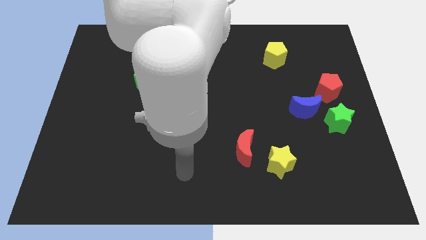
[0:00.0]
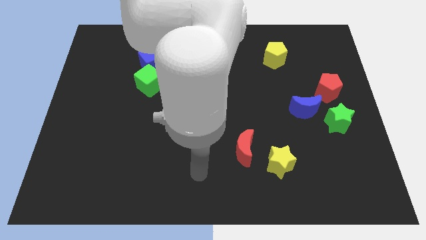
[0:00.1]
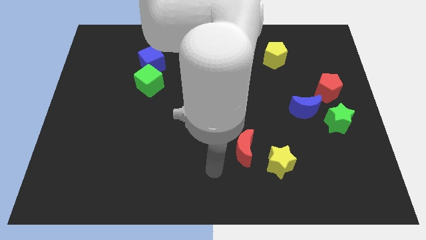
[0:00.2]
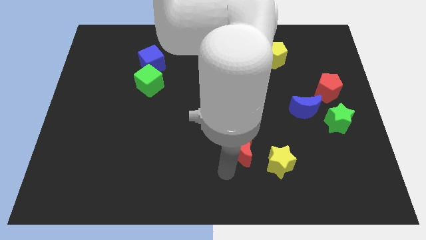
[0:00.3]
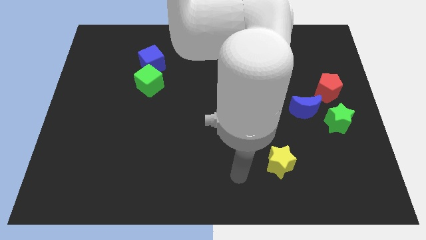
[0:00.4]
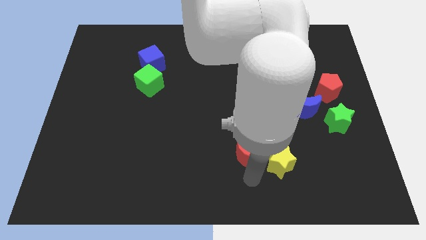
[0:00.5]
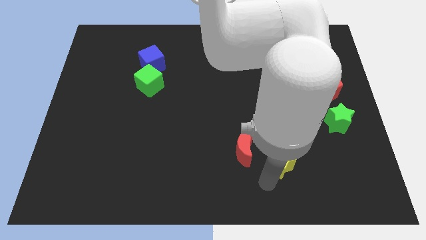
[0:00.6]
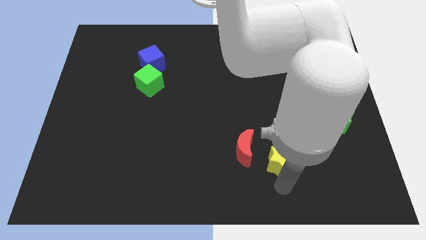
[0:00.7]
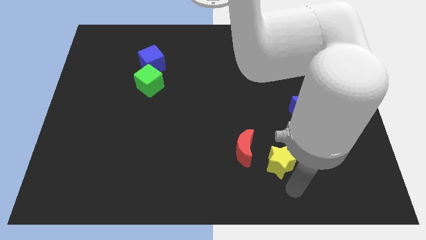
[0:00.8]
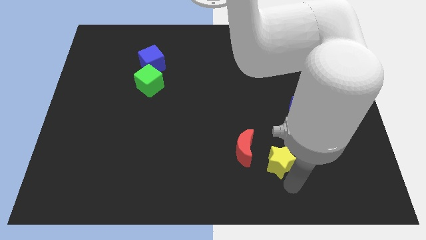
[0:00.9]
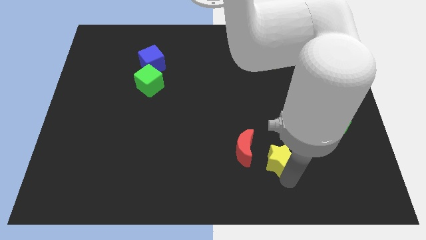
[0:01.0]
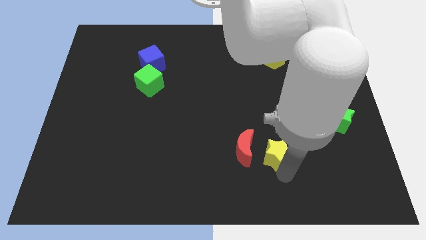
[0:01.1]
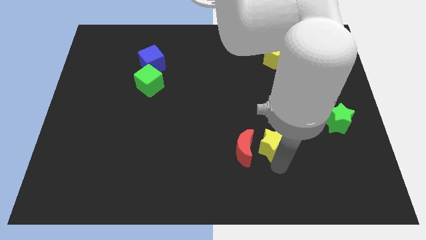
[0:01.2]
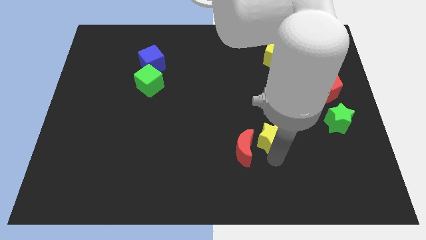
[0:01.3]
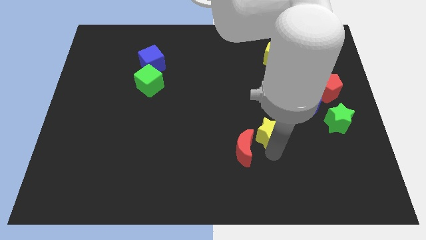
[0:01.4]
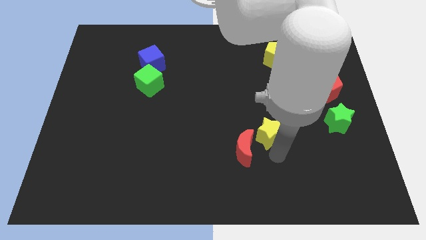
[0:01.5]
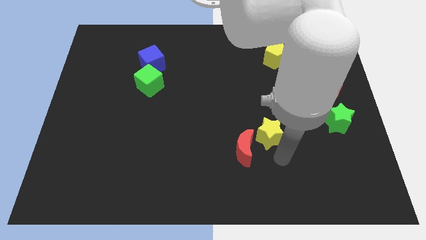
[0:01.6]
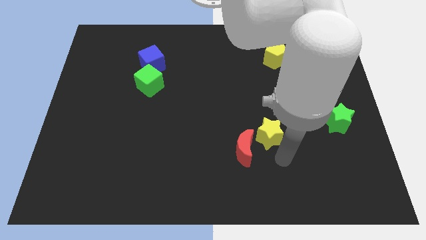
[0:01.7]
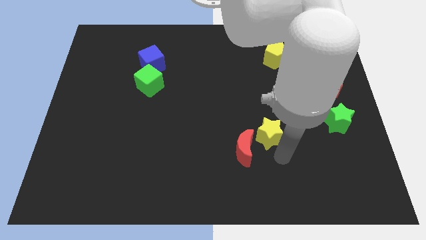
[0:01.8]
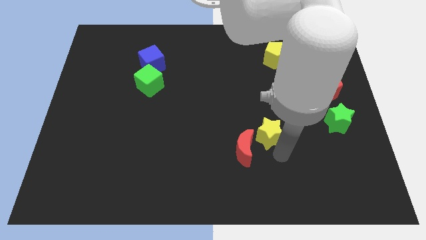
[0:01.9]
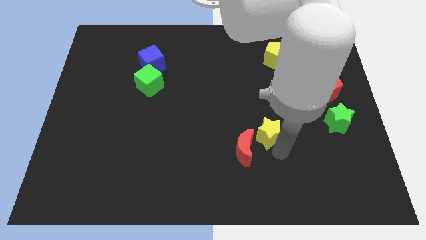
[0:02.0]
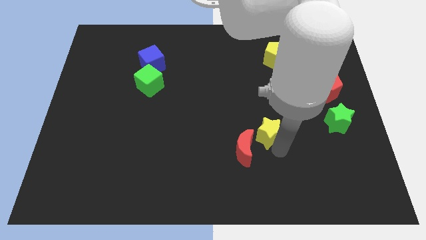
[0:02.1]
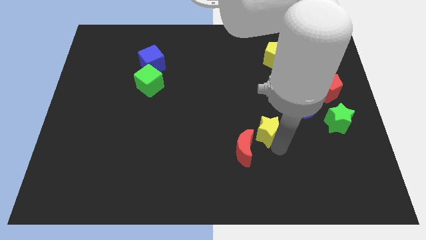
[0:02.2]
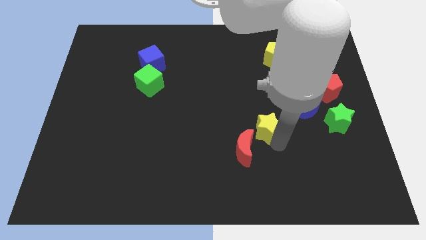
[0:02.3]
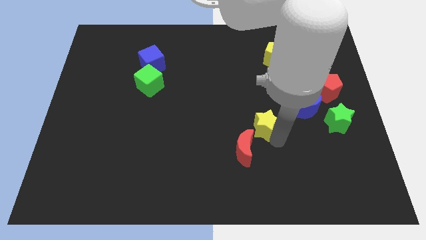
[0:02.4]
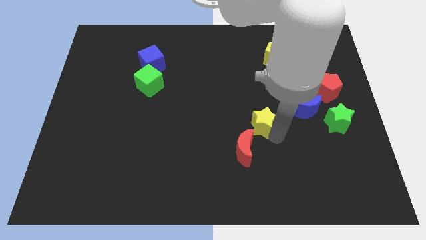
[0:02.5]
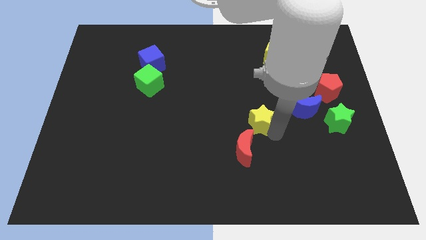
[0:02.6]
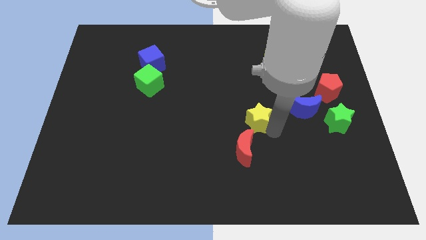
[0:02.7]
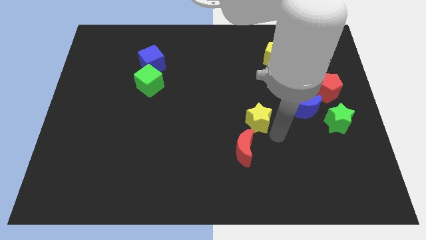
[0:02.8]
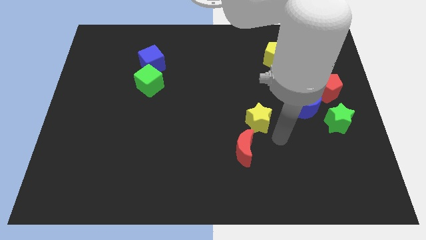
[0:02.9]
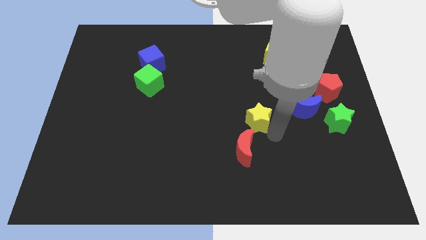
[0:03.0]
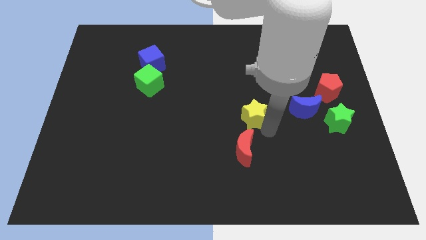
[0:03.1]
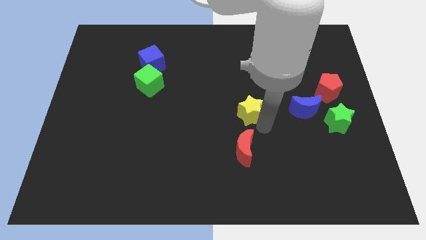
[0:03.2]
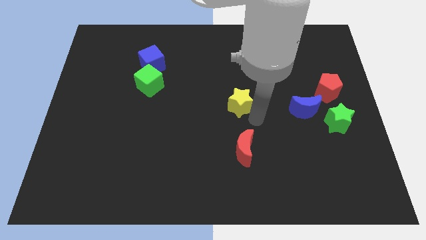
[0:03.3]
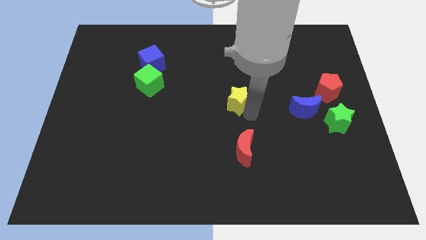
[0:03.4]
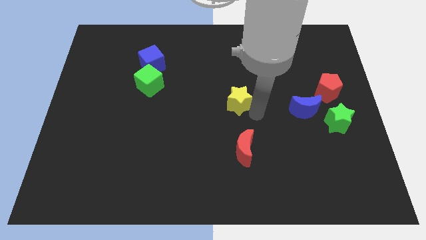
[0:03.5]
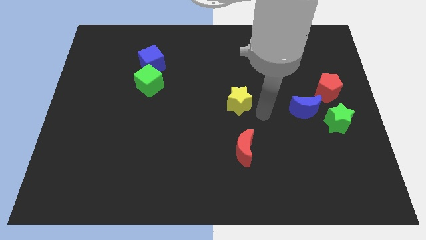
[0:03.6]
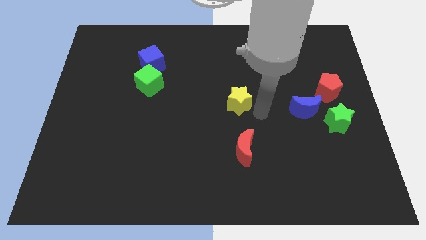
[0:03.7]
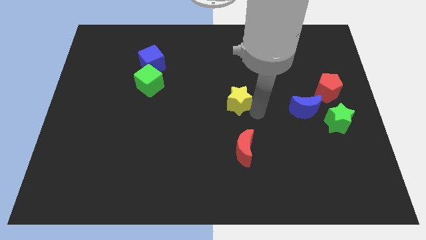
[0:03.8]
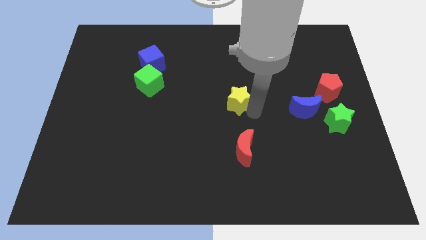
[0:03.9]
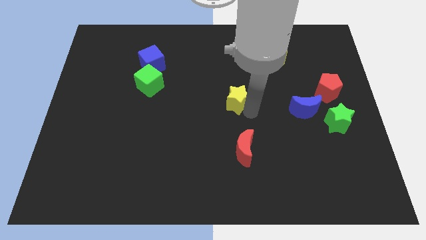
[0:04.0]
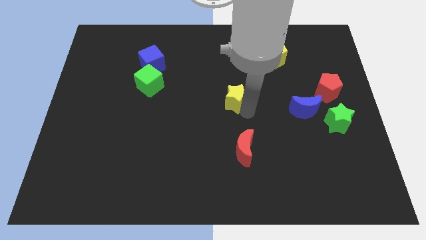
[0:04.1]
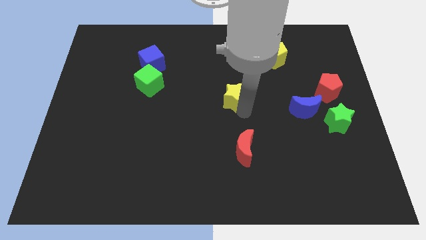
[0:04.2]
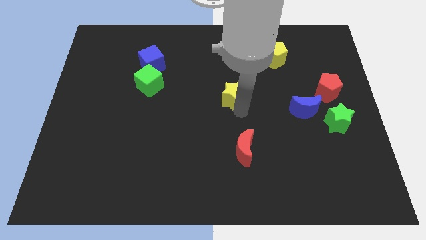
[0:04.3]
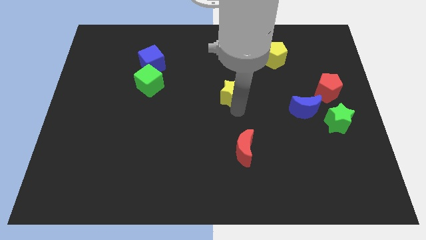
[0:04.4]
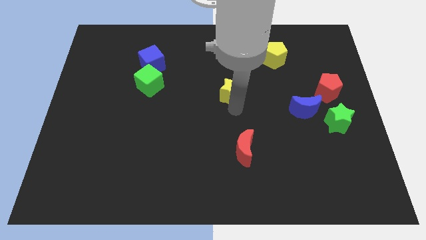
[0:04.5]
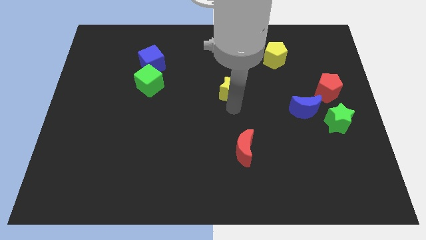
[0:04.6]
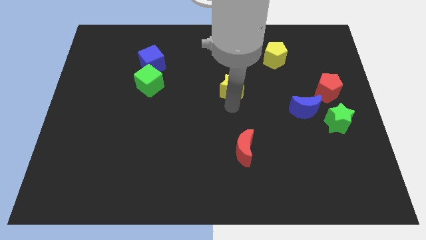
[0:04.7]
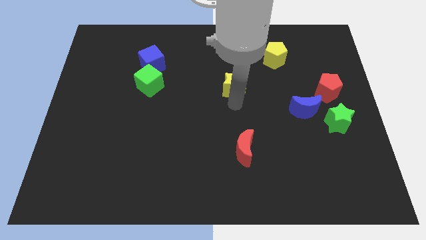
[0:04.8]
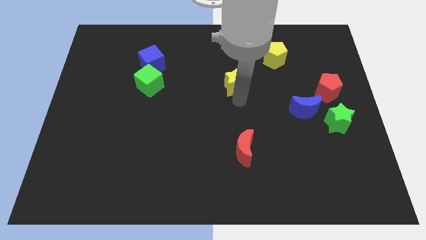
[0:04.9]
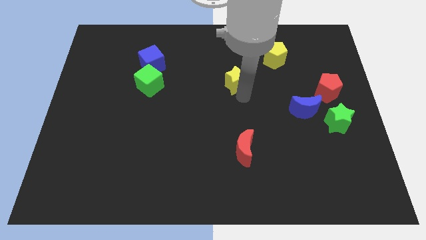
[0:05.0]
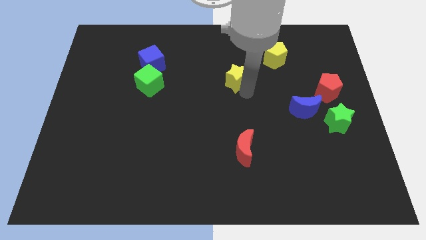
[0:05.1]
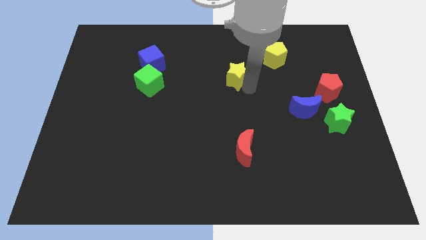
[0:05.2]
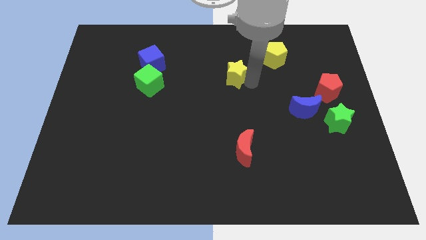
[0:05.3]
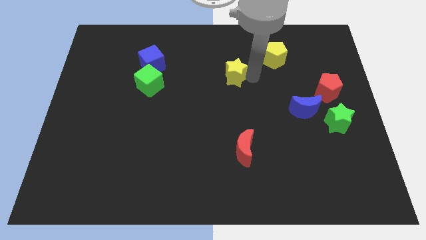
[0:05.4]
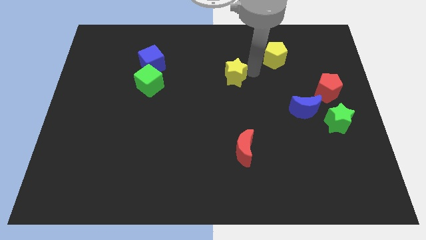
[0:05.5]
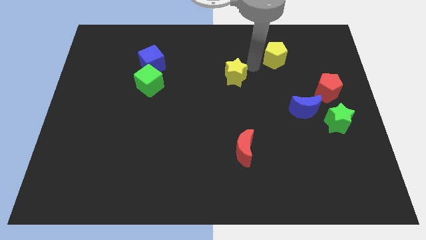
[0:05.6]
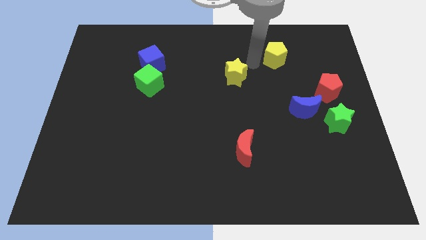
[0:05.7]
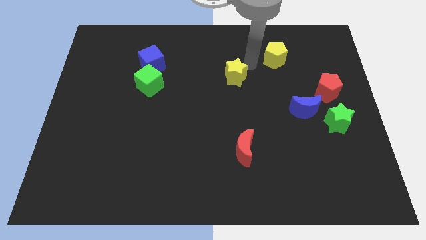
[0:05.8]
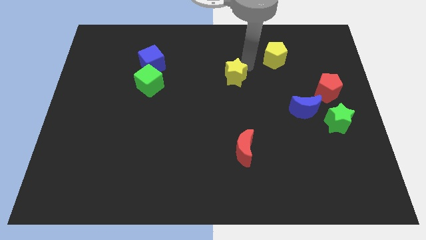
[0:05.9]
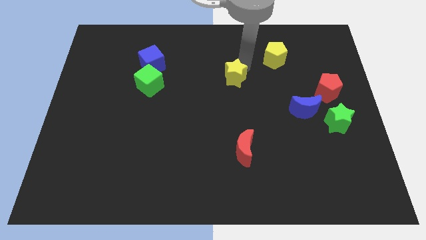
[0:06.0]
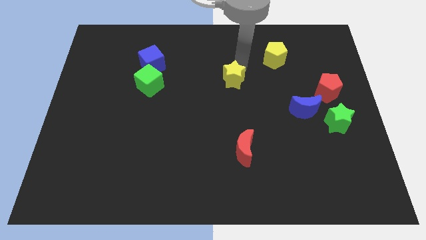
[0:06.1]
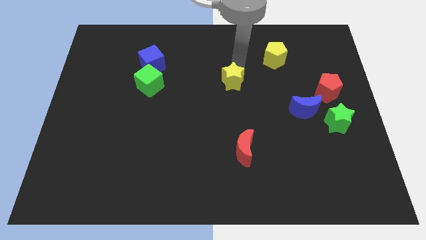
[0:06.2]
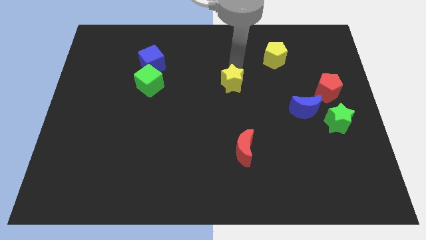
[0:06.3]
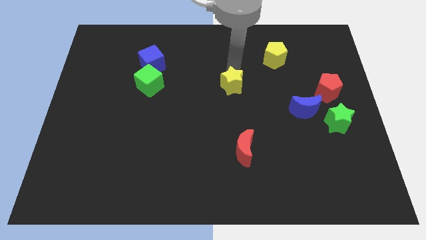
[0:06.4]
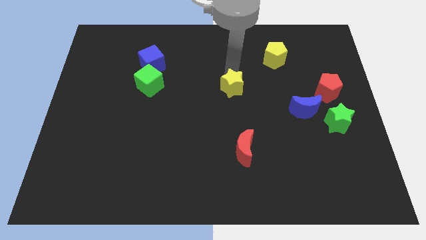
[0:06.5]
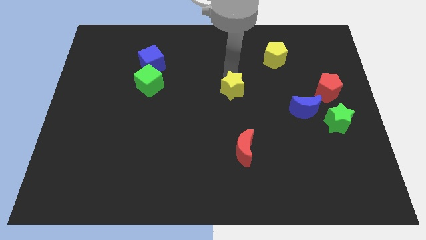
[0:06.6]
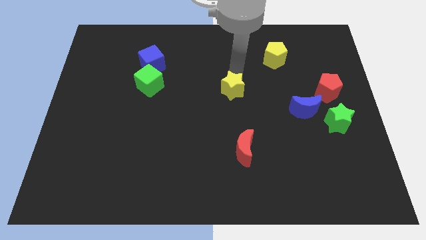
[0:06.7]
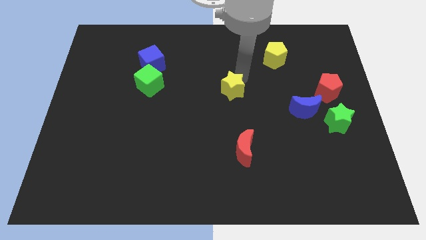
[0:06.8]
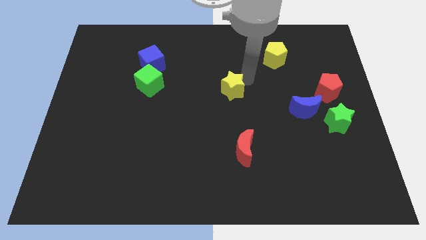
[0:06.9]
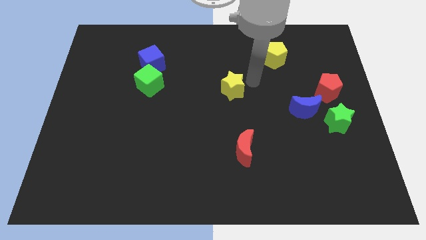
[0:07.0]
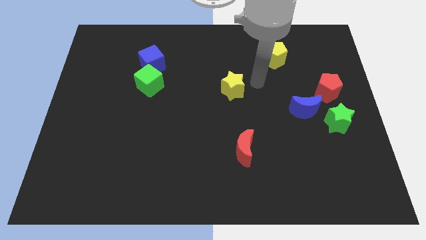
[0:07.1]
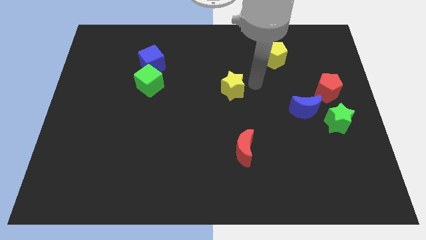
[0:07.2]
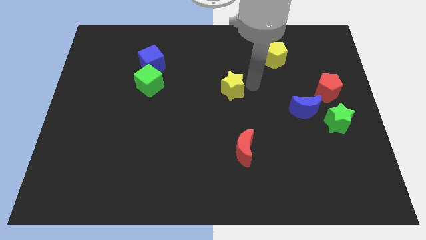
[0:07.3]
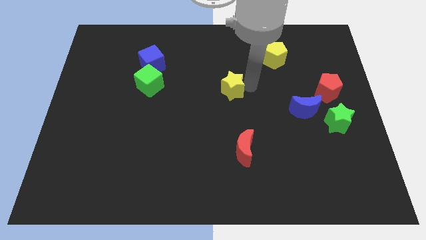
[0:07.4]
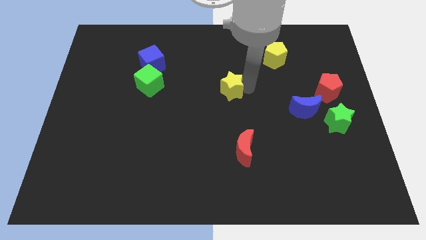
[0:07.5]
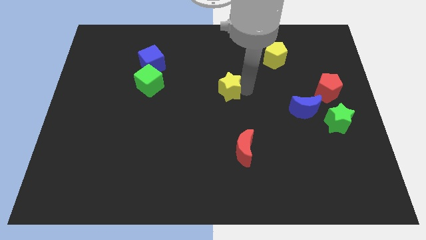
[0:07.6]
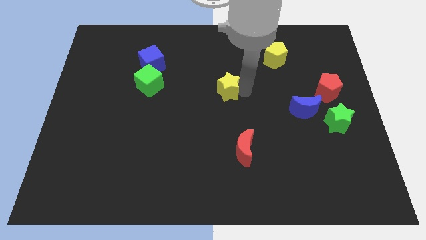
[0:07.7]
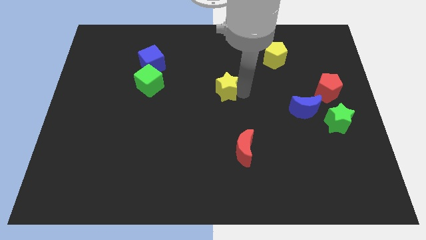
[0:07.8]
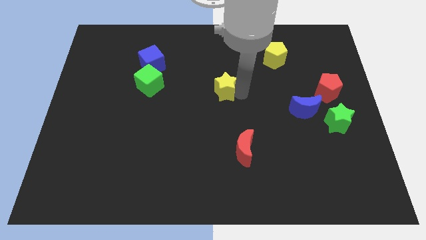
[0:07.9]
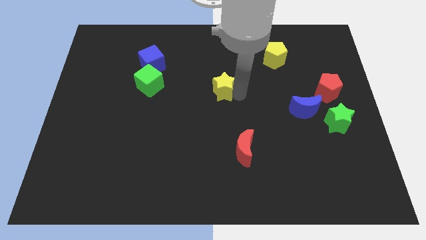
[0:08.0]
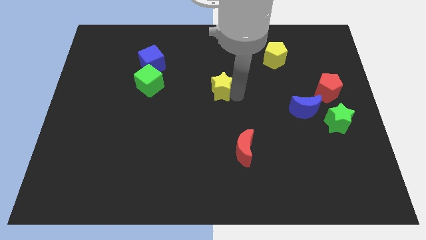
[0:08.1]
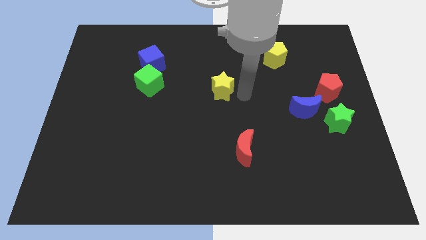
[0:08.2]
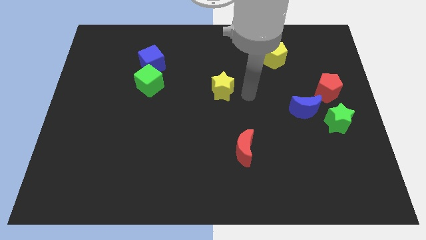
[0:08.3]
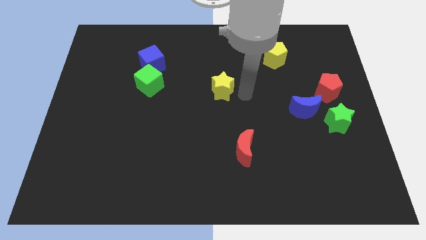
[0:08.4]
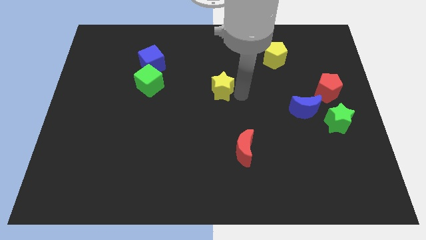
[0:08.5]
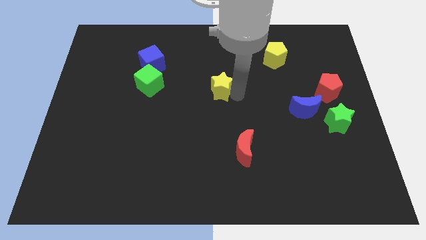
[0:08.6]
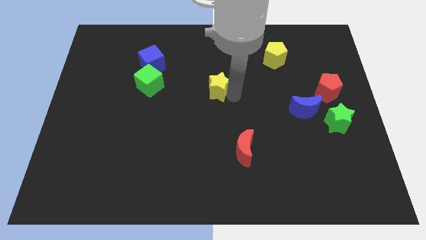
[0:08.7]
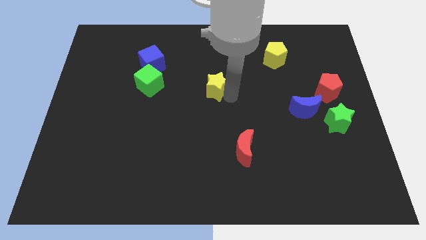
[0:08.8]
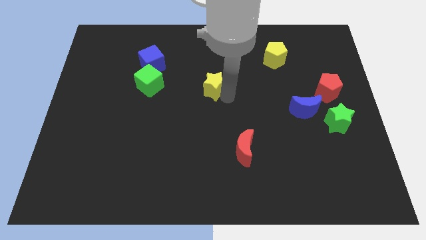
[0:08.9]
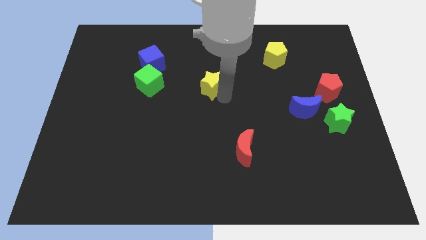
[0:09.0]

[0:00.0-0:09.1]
move the yellow star to the right side of the green cube
